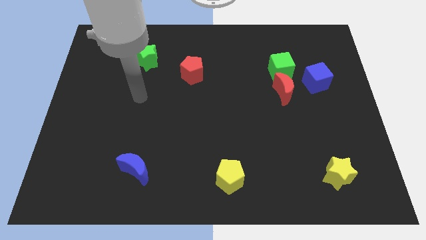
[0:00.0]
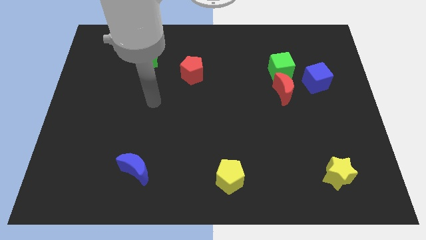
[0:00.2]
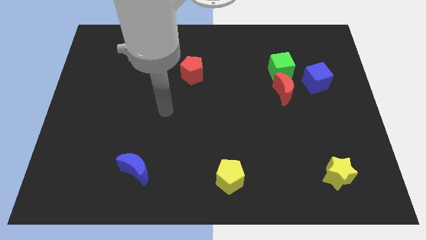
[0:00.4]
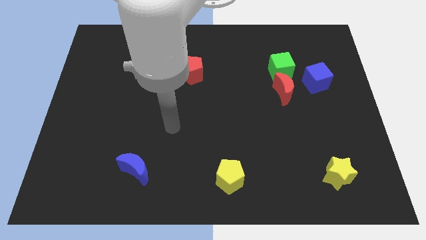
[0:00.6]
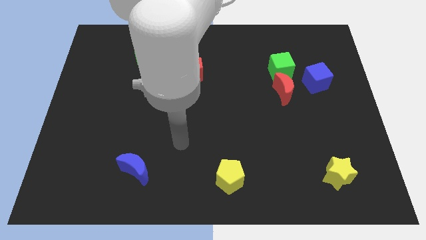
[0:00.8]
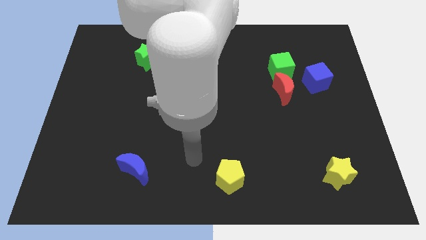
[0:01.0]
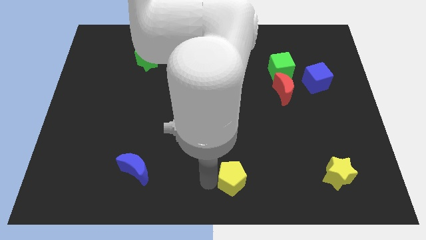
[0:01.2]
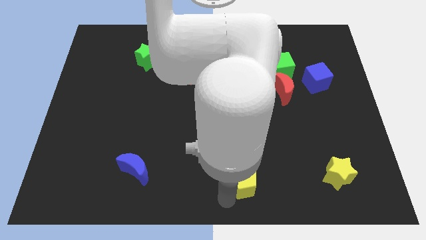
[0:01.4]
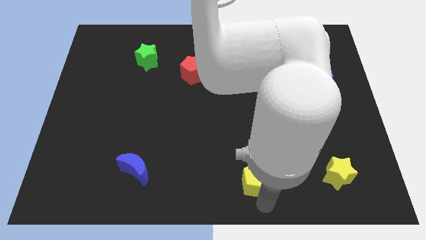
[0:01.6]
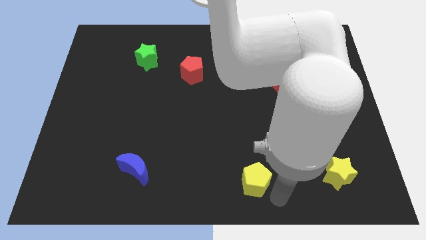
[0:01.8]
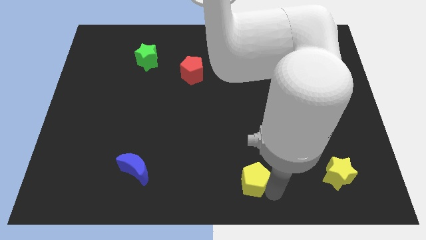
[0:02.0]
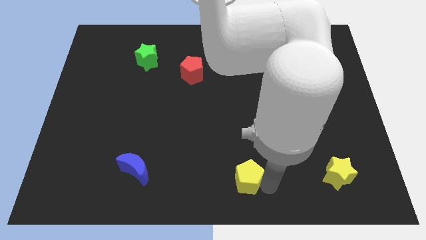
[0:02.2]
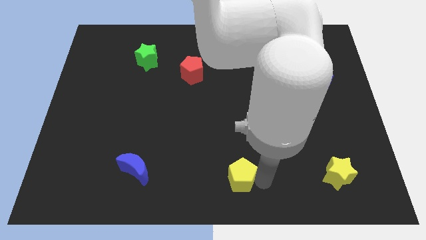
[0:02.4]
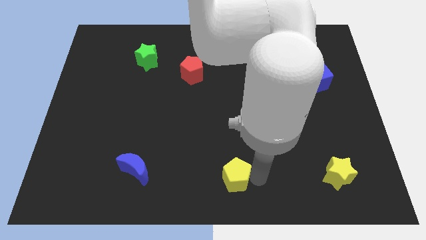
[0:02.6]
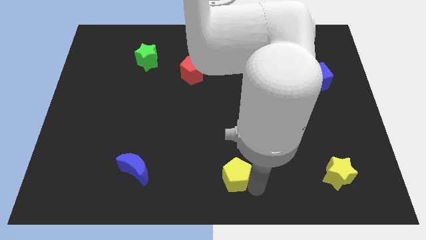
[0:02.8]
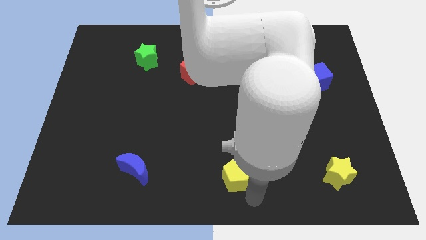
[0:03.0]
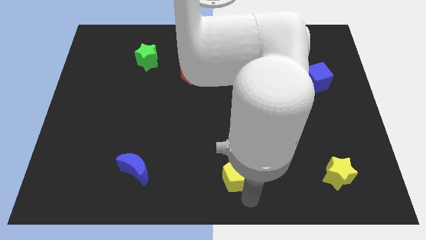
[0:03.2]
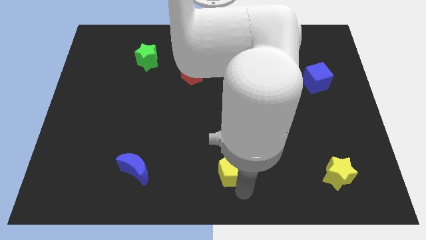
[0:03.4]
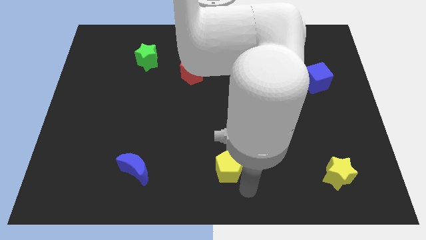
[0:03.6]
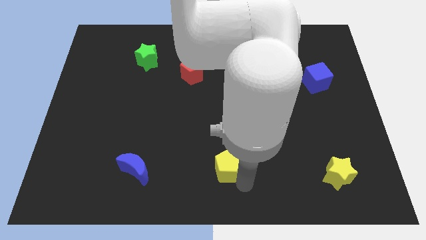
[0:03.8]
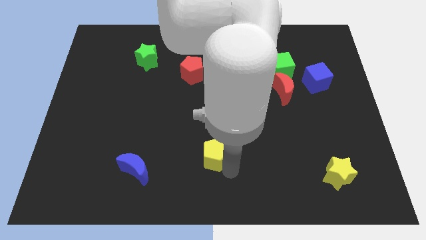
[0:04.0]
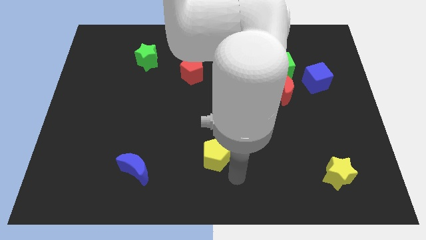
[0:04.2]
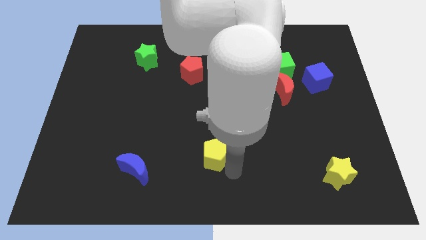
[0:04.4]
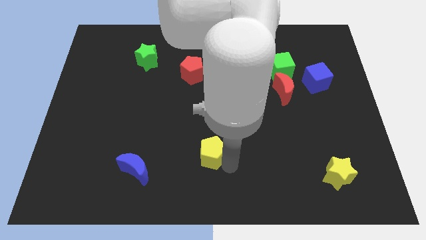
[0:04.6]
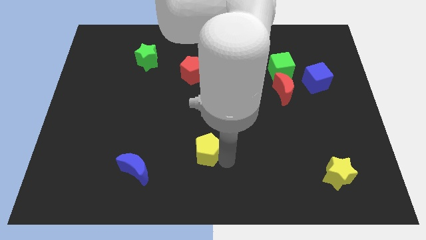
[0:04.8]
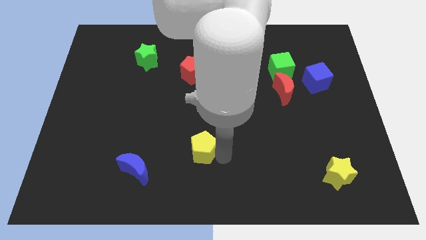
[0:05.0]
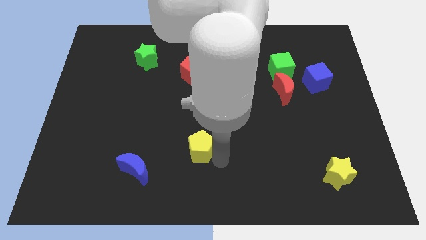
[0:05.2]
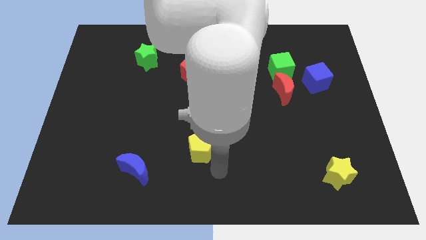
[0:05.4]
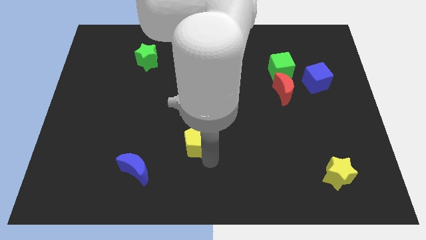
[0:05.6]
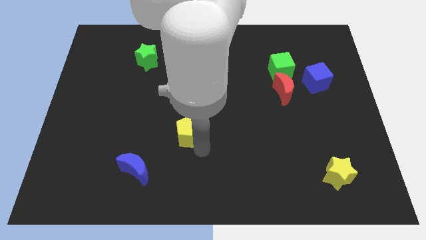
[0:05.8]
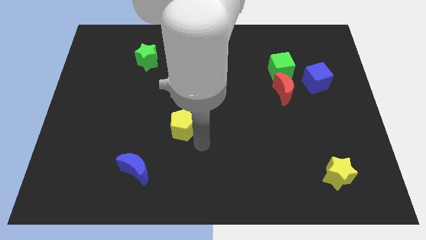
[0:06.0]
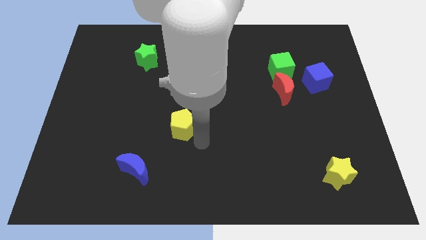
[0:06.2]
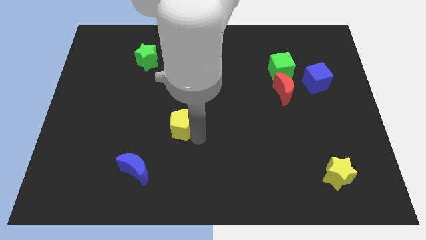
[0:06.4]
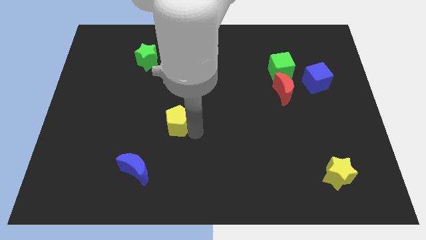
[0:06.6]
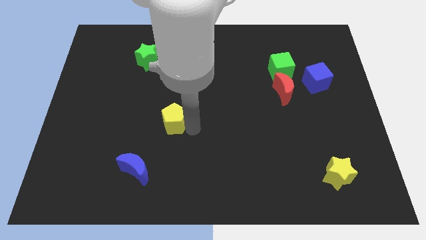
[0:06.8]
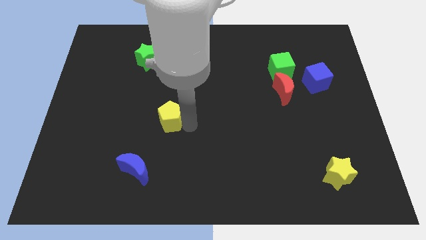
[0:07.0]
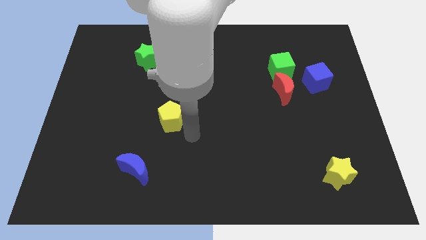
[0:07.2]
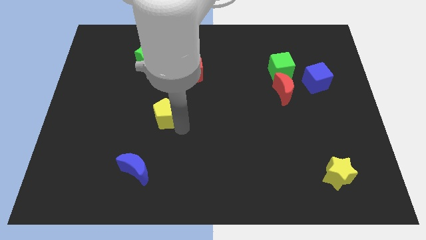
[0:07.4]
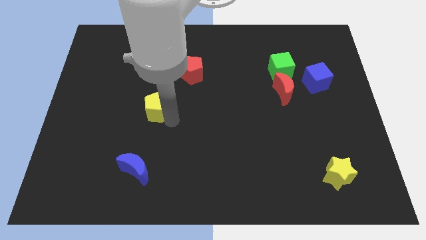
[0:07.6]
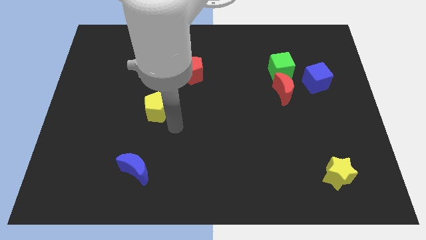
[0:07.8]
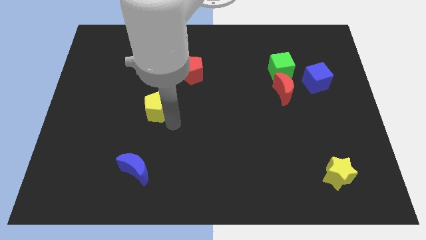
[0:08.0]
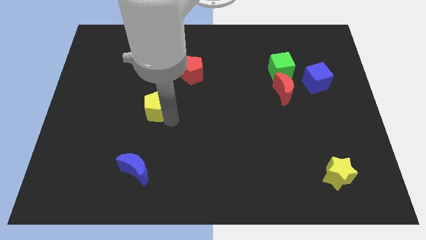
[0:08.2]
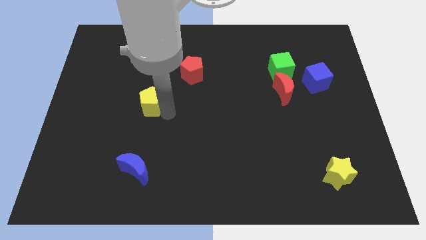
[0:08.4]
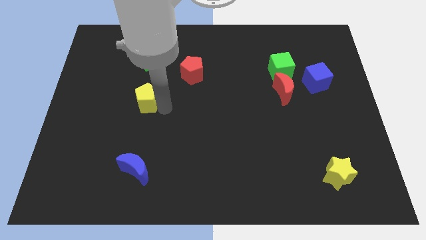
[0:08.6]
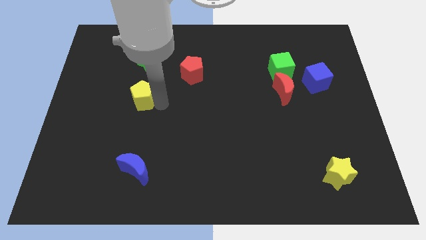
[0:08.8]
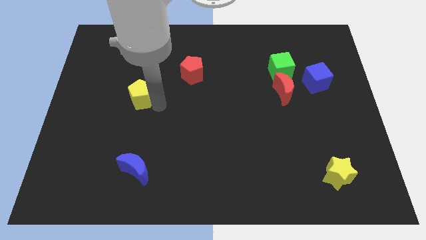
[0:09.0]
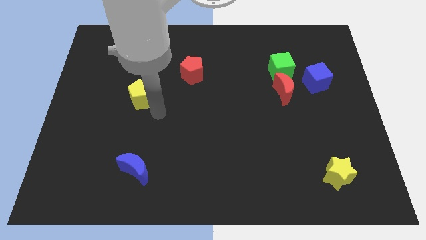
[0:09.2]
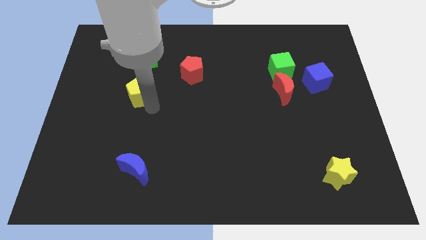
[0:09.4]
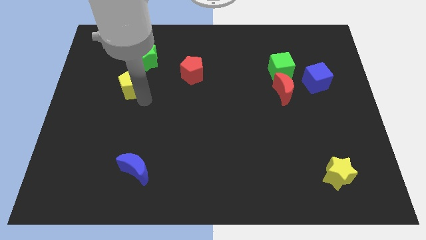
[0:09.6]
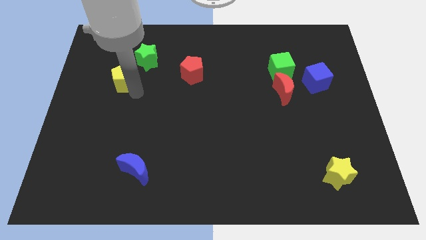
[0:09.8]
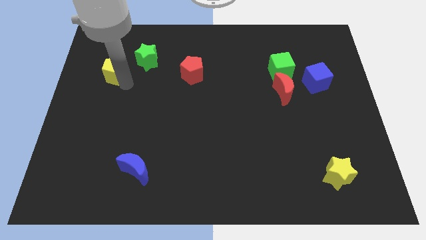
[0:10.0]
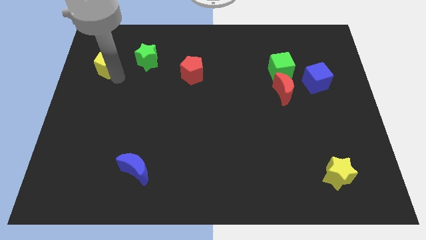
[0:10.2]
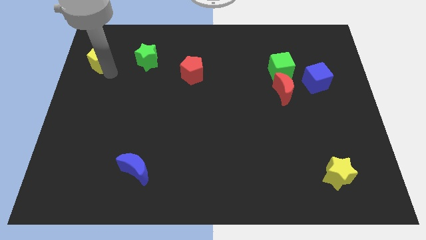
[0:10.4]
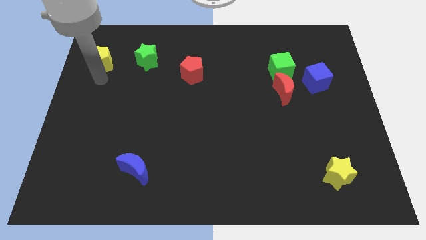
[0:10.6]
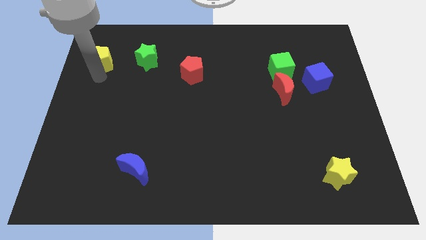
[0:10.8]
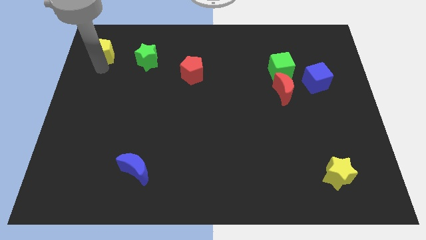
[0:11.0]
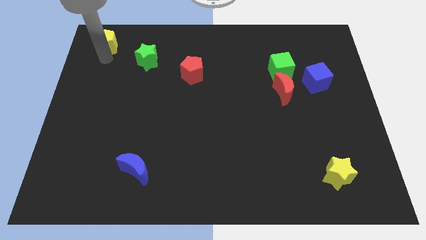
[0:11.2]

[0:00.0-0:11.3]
slide the yellow pentagon to the top left of the board

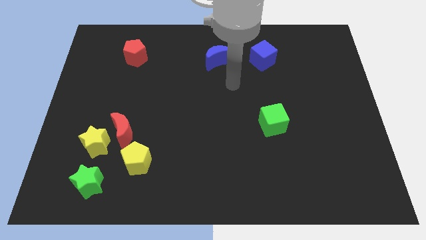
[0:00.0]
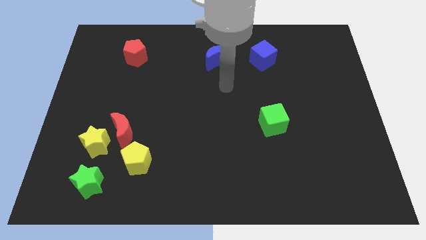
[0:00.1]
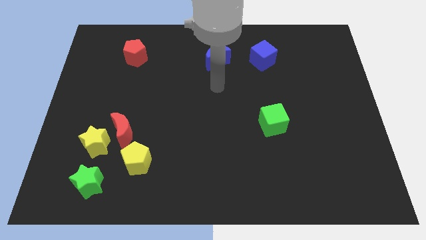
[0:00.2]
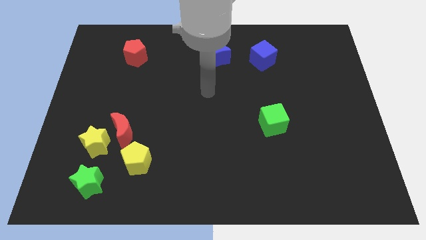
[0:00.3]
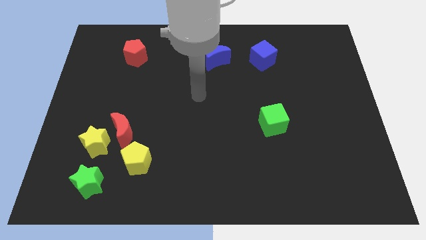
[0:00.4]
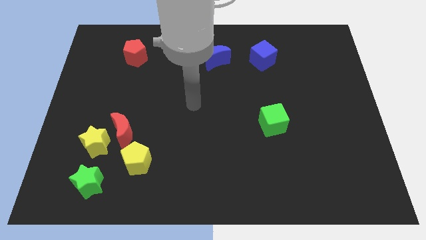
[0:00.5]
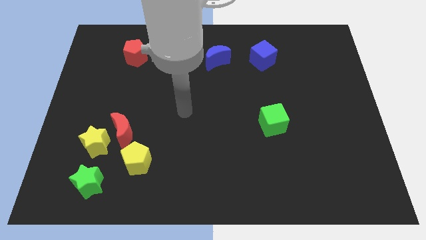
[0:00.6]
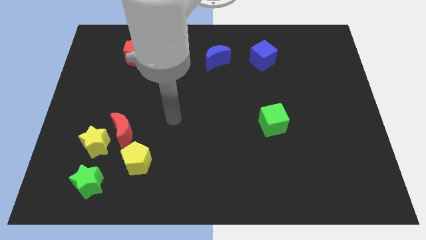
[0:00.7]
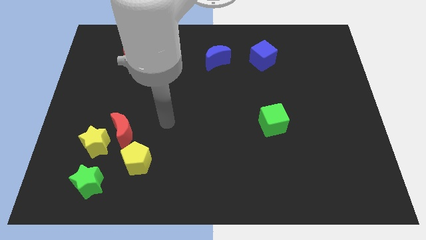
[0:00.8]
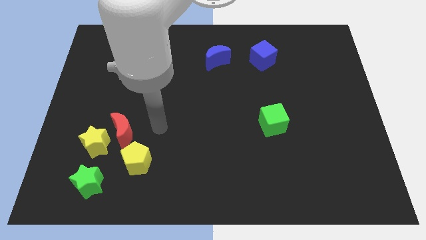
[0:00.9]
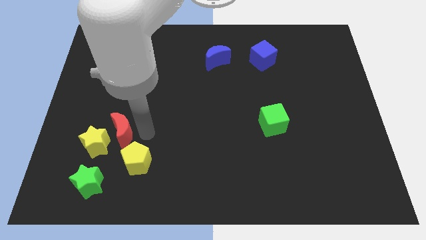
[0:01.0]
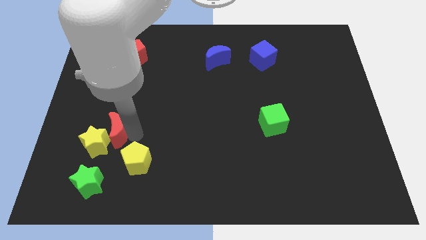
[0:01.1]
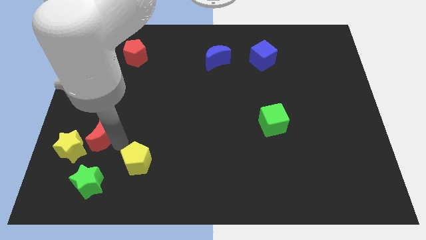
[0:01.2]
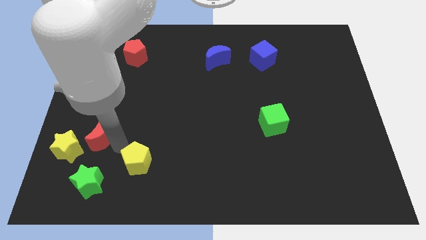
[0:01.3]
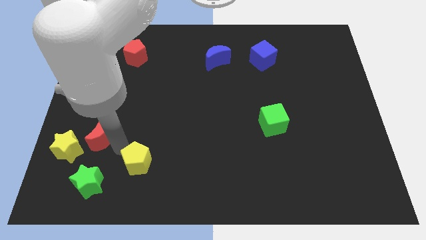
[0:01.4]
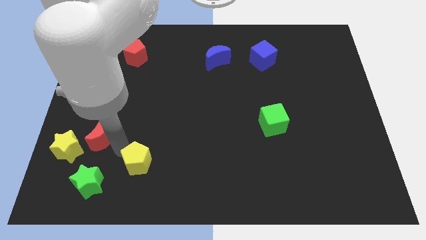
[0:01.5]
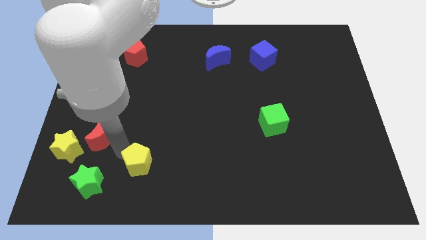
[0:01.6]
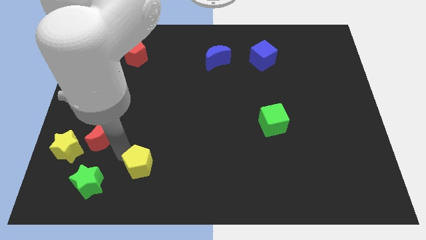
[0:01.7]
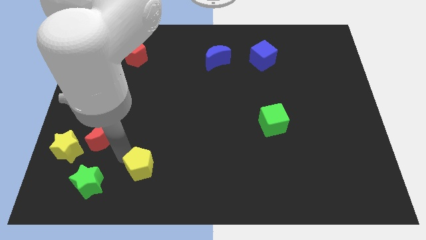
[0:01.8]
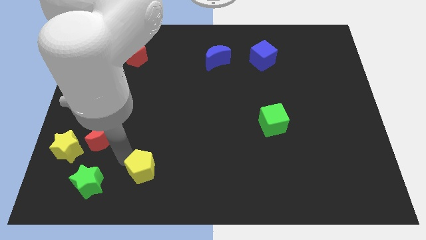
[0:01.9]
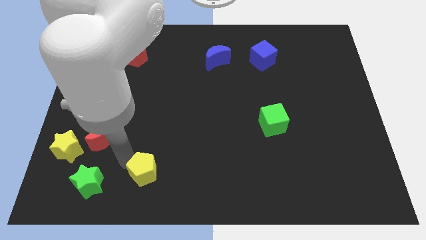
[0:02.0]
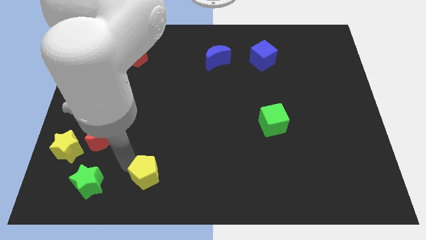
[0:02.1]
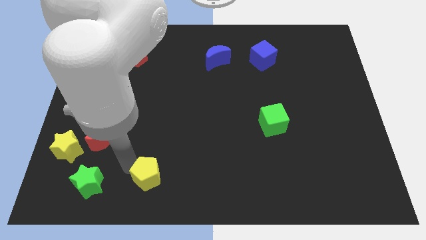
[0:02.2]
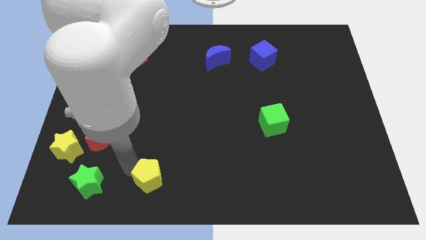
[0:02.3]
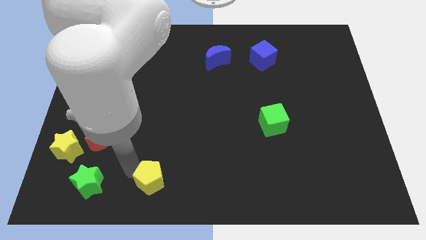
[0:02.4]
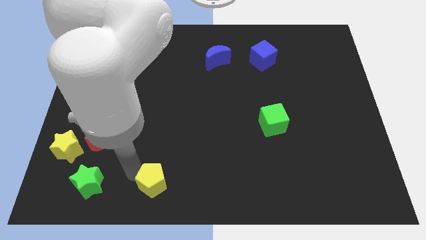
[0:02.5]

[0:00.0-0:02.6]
push the yellow pentagon to the bottom
